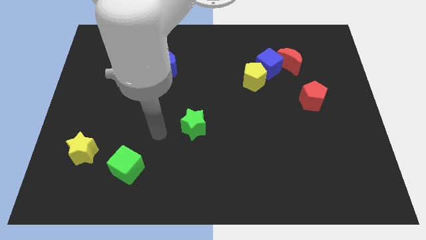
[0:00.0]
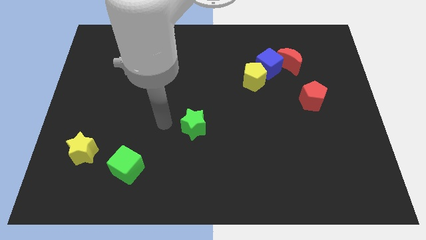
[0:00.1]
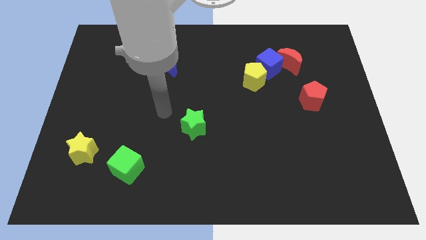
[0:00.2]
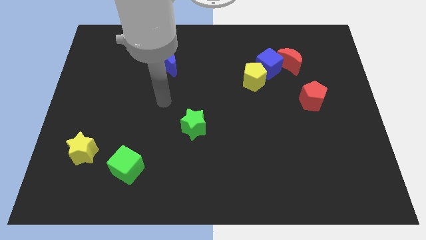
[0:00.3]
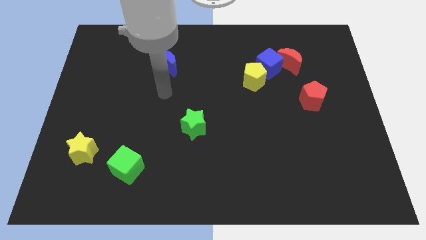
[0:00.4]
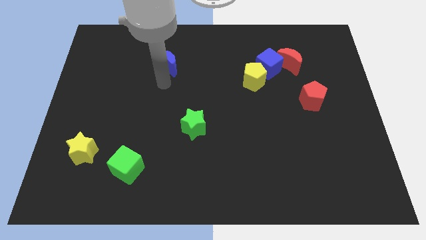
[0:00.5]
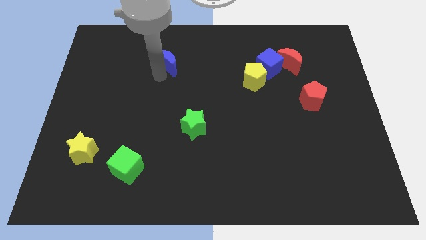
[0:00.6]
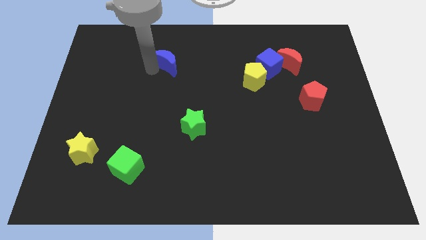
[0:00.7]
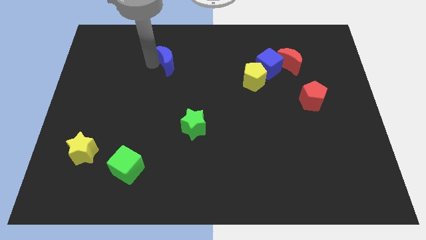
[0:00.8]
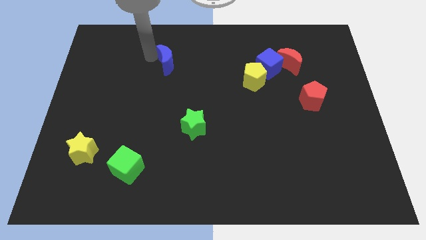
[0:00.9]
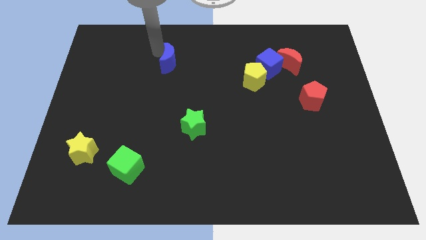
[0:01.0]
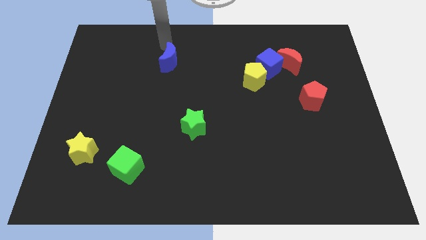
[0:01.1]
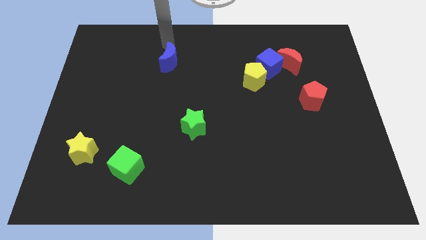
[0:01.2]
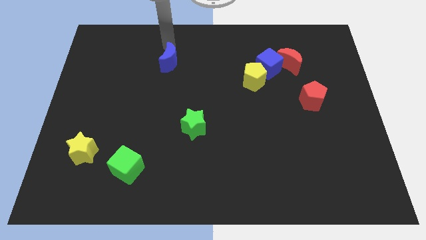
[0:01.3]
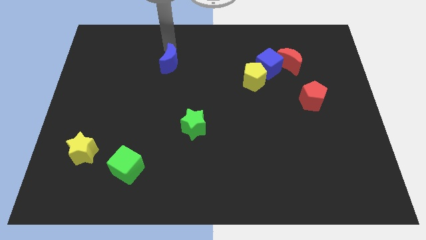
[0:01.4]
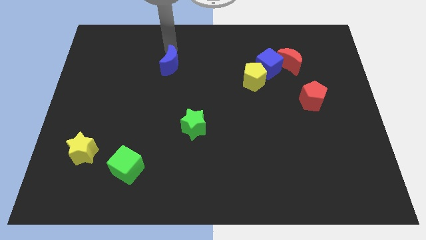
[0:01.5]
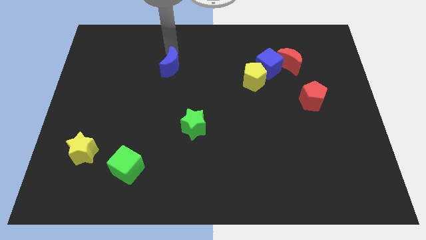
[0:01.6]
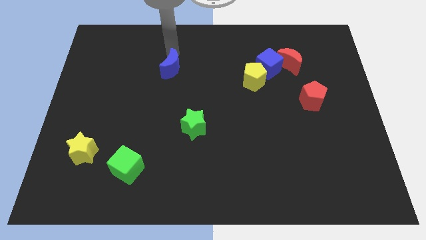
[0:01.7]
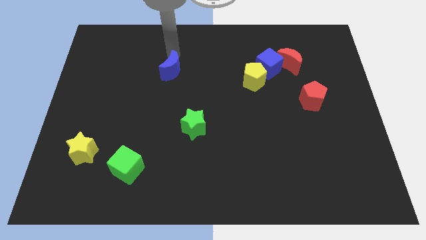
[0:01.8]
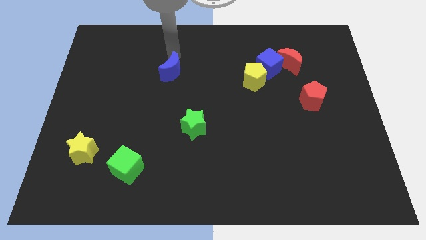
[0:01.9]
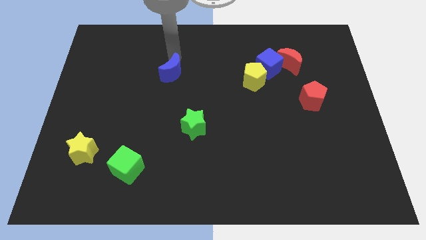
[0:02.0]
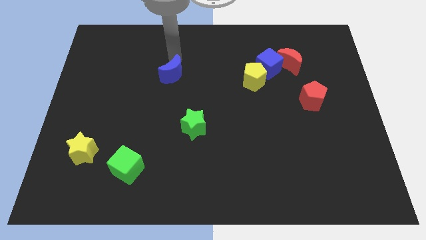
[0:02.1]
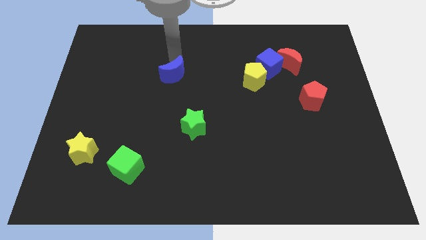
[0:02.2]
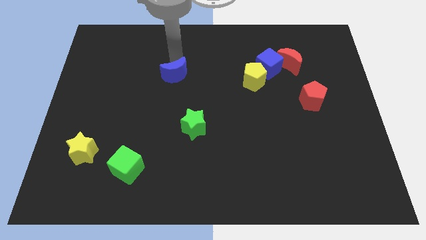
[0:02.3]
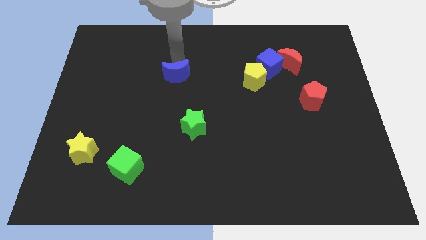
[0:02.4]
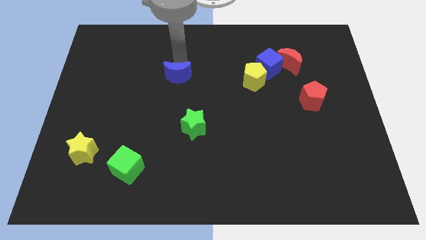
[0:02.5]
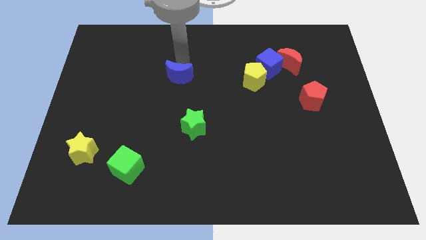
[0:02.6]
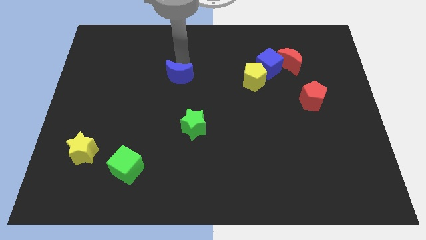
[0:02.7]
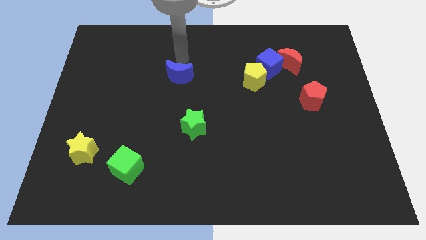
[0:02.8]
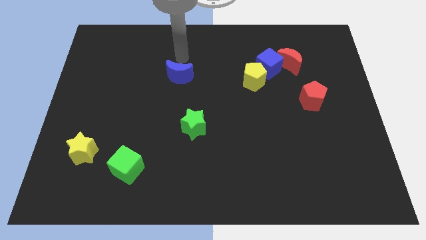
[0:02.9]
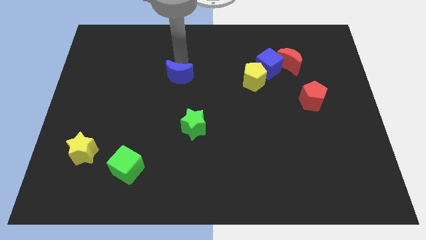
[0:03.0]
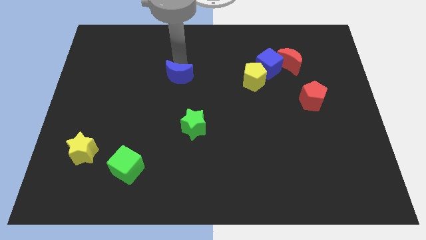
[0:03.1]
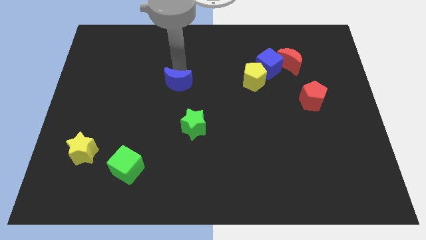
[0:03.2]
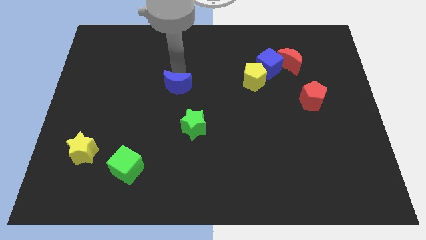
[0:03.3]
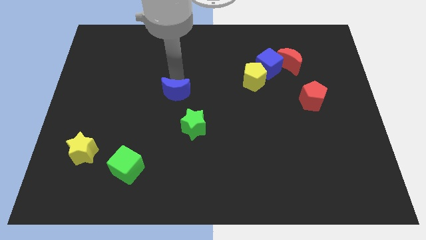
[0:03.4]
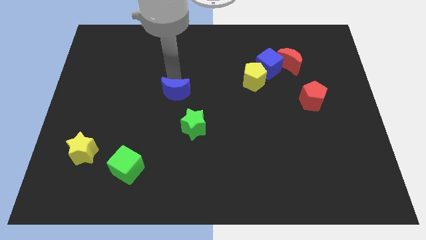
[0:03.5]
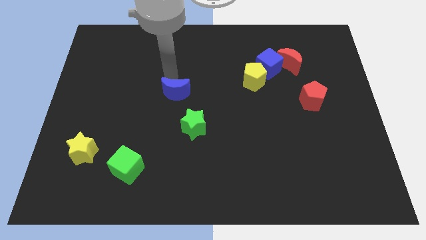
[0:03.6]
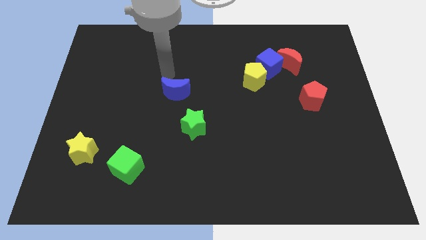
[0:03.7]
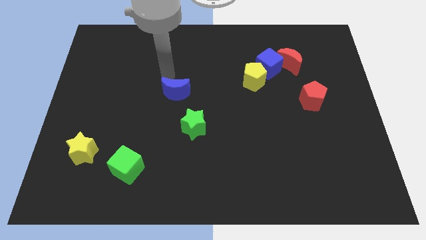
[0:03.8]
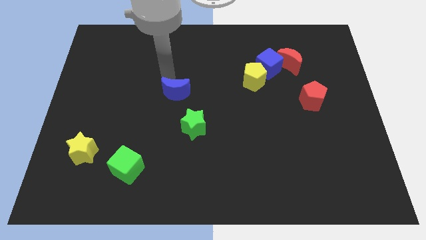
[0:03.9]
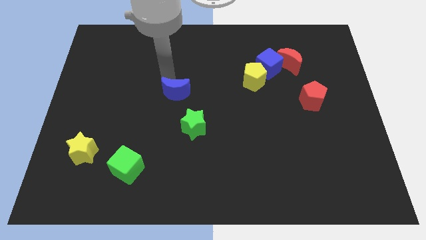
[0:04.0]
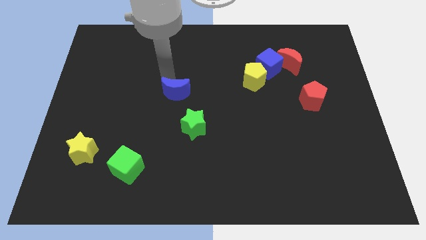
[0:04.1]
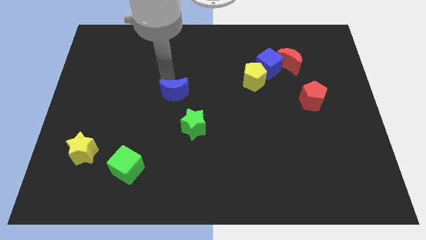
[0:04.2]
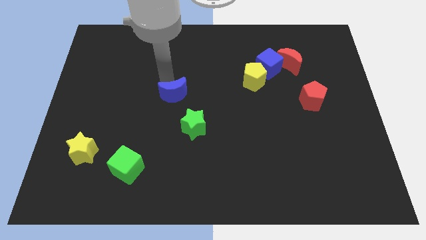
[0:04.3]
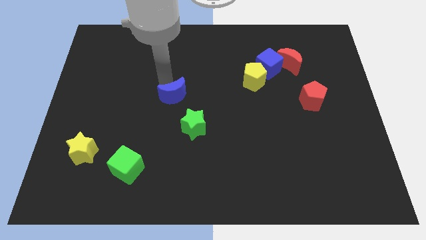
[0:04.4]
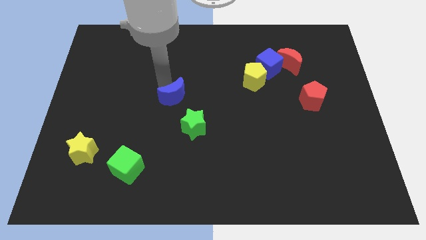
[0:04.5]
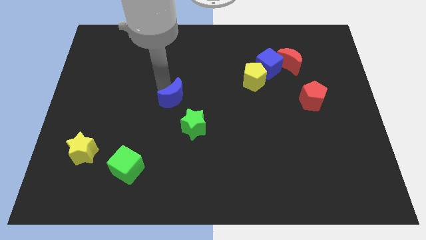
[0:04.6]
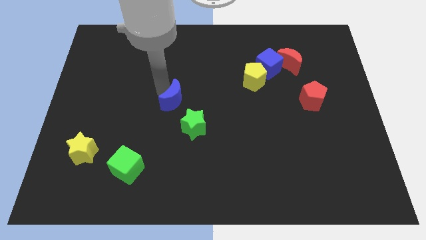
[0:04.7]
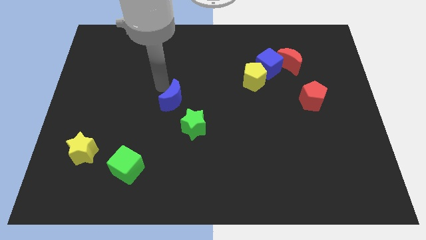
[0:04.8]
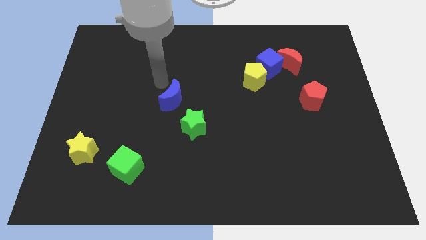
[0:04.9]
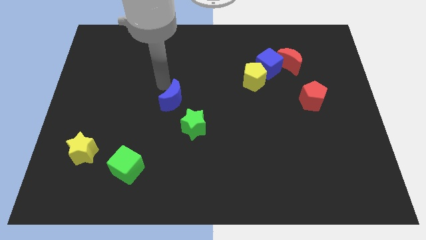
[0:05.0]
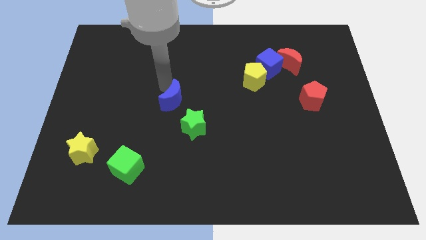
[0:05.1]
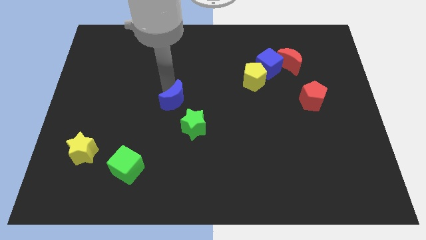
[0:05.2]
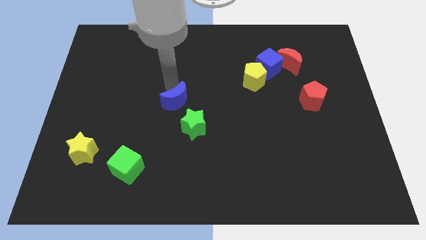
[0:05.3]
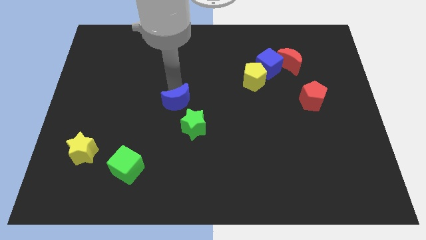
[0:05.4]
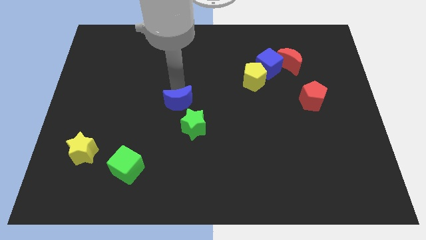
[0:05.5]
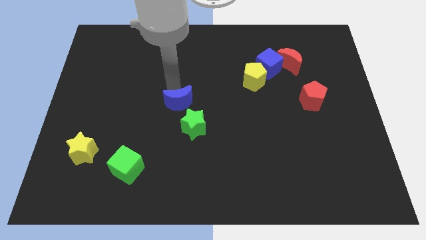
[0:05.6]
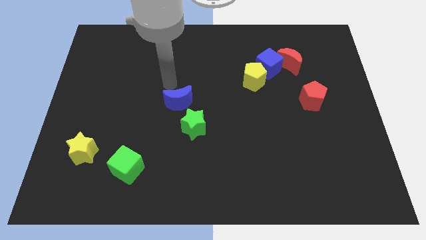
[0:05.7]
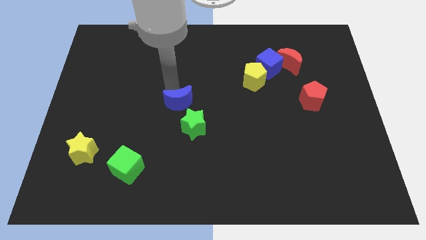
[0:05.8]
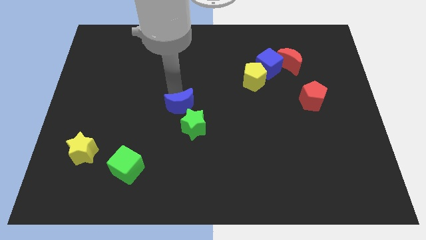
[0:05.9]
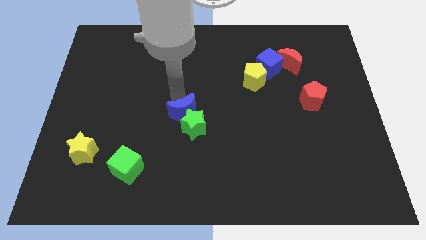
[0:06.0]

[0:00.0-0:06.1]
move the blue moon next to the green star

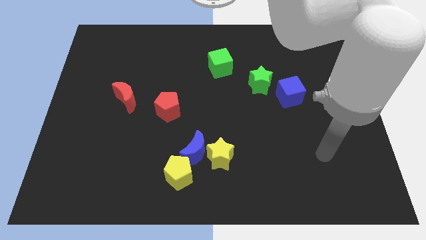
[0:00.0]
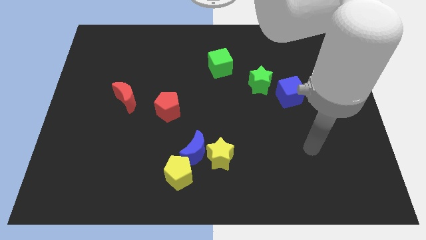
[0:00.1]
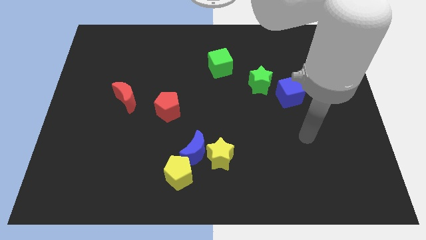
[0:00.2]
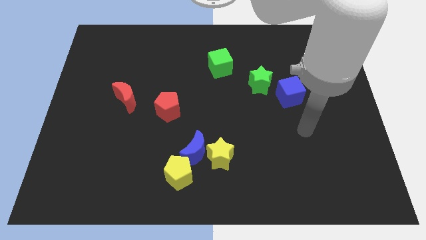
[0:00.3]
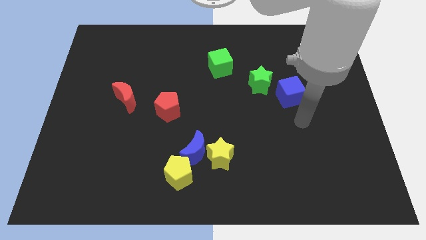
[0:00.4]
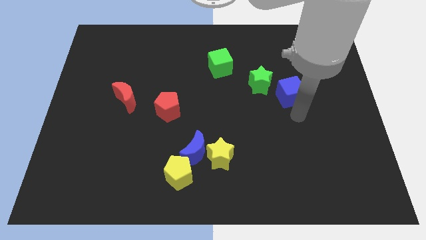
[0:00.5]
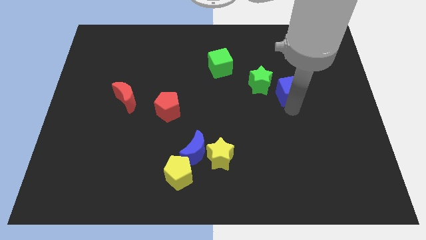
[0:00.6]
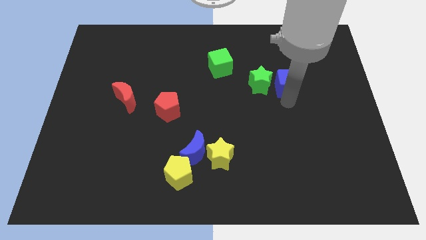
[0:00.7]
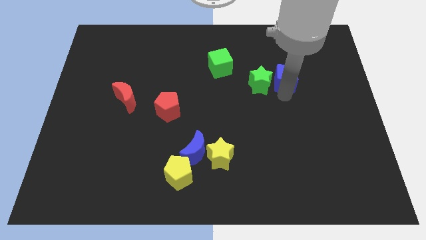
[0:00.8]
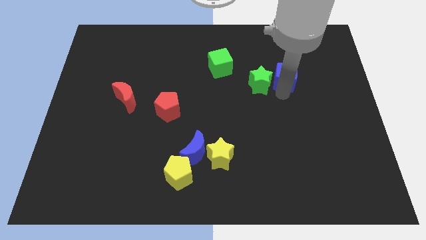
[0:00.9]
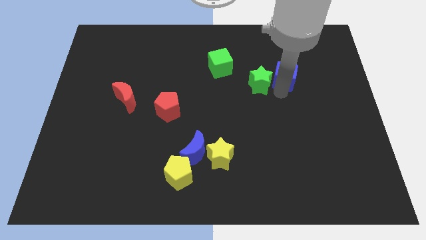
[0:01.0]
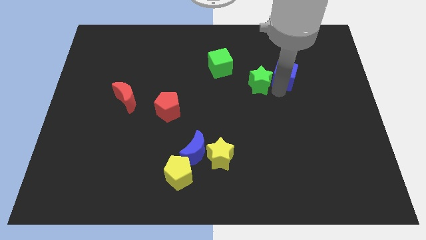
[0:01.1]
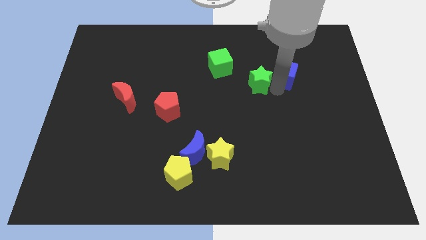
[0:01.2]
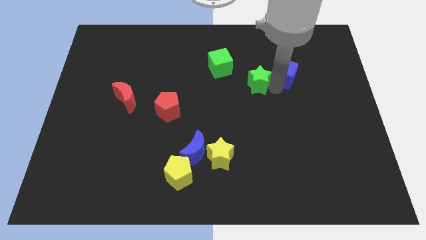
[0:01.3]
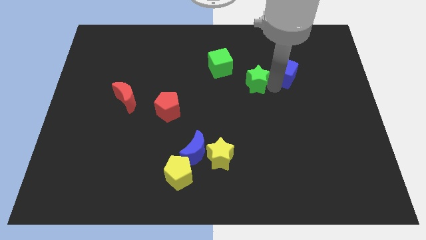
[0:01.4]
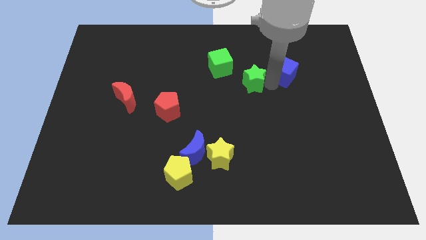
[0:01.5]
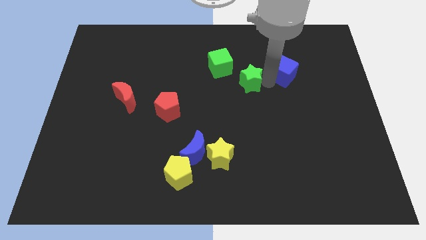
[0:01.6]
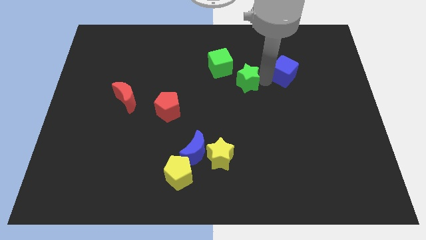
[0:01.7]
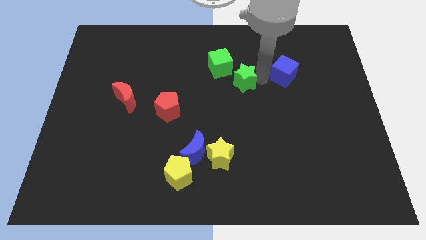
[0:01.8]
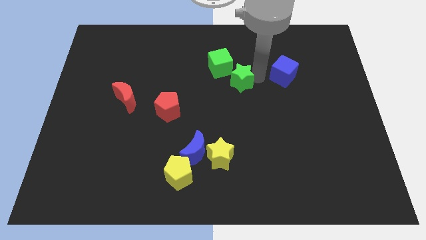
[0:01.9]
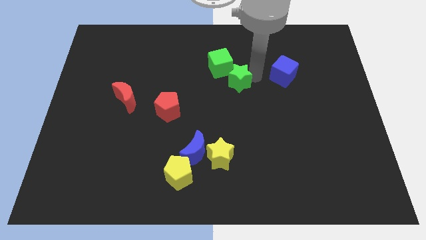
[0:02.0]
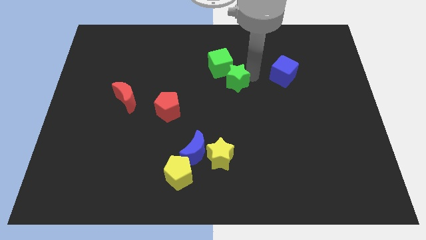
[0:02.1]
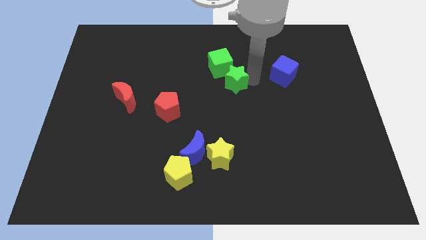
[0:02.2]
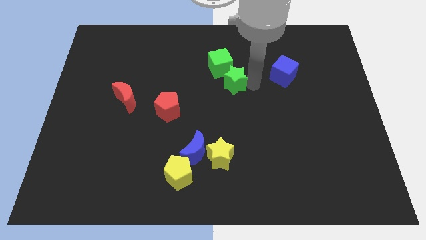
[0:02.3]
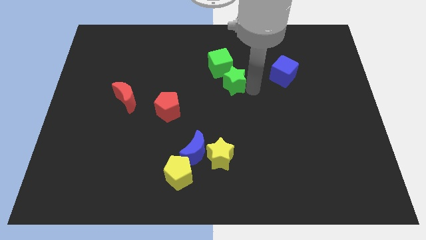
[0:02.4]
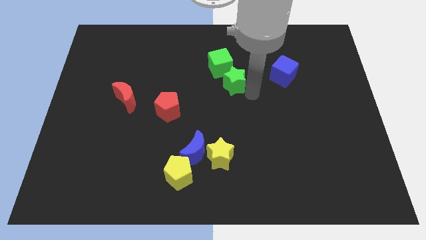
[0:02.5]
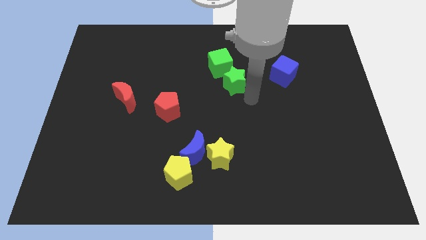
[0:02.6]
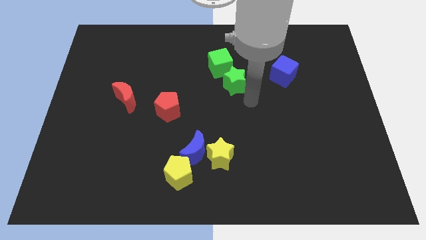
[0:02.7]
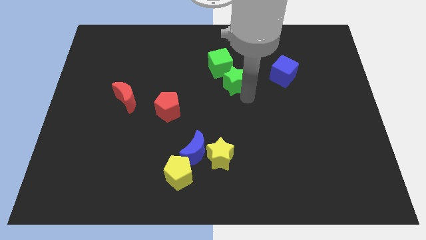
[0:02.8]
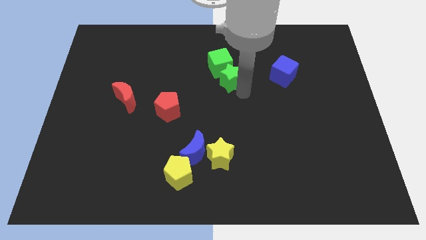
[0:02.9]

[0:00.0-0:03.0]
push the green star next to the green cube
